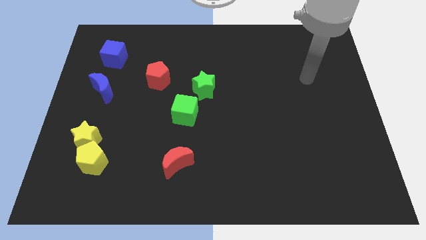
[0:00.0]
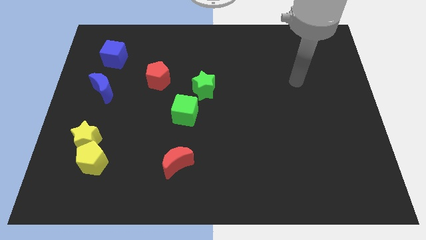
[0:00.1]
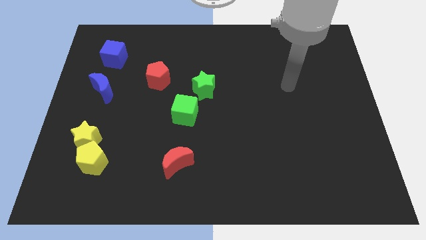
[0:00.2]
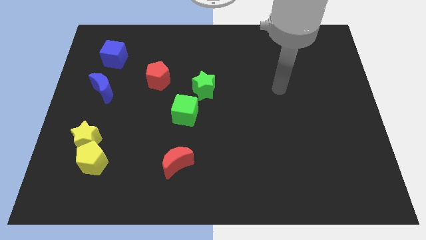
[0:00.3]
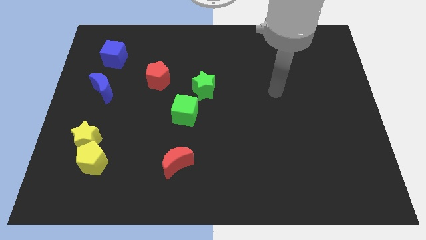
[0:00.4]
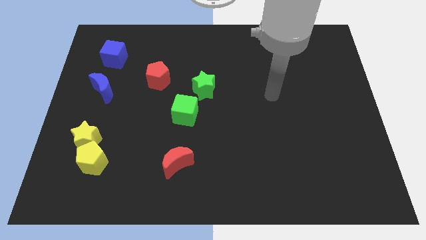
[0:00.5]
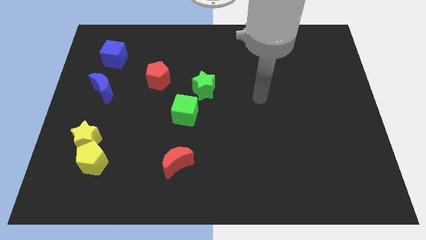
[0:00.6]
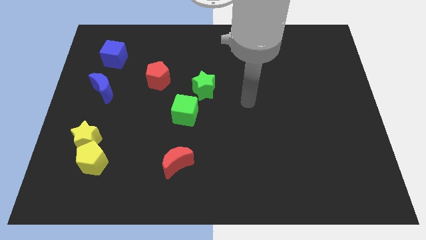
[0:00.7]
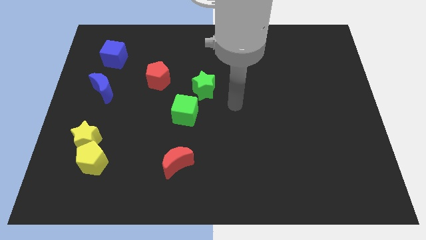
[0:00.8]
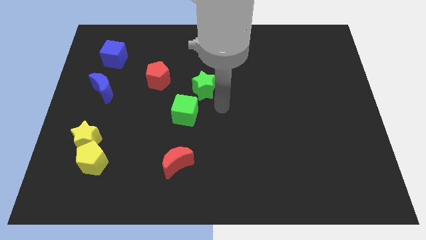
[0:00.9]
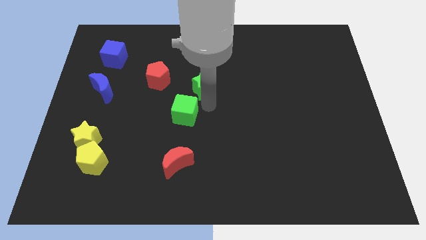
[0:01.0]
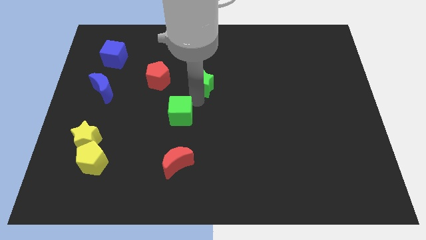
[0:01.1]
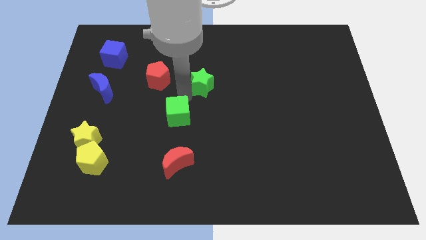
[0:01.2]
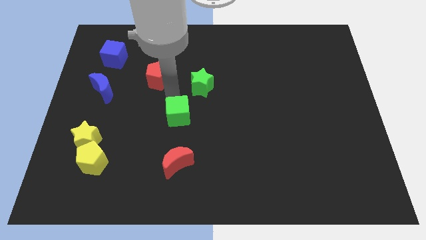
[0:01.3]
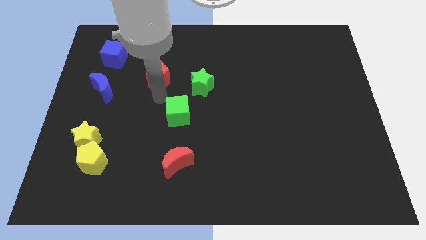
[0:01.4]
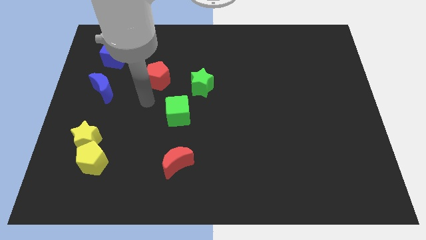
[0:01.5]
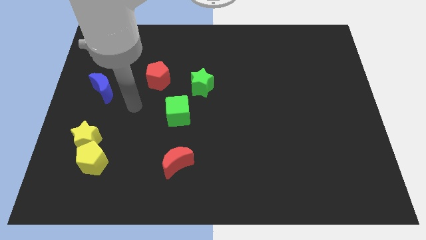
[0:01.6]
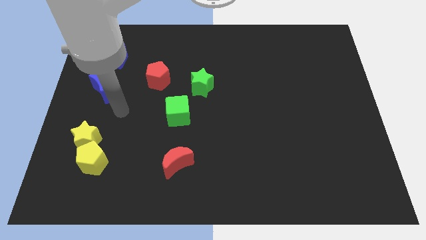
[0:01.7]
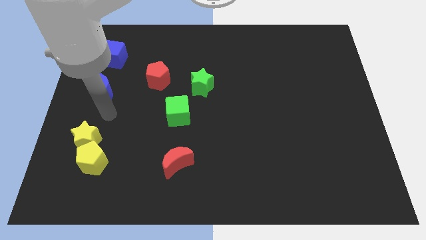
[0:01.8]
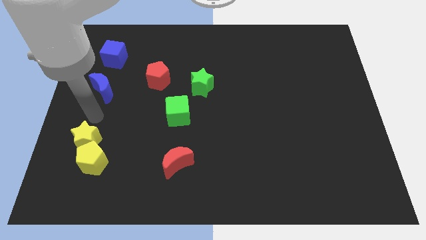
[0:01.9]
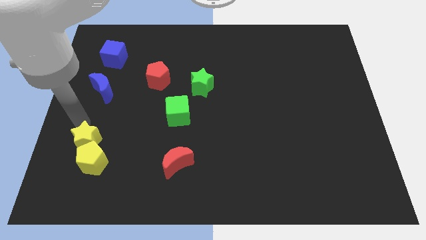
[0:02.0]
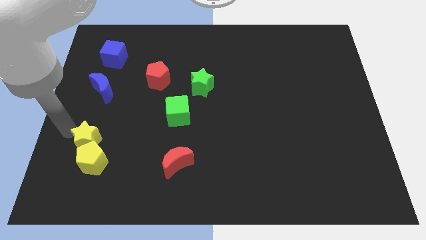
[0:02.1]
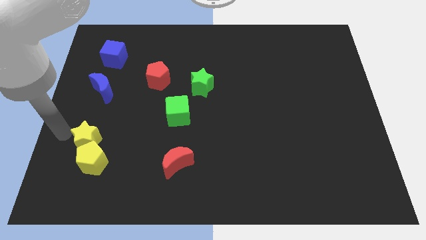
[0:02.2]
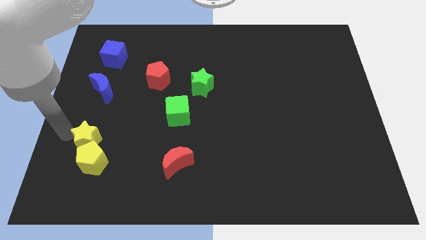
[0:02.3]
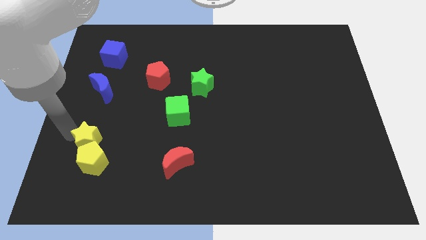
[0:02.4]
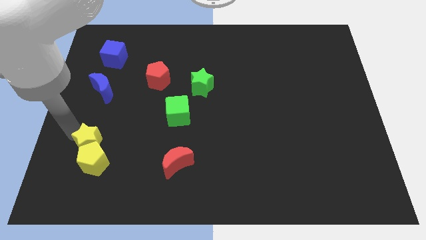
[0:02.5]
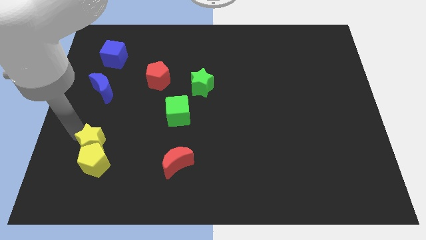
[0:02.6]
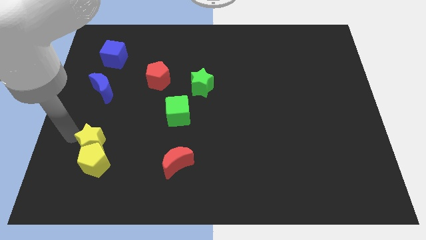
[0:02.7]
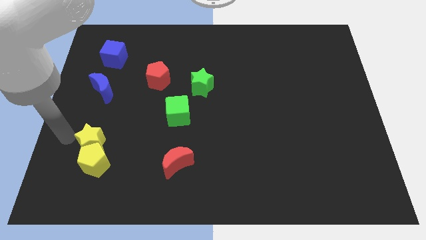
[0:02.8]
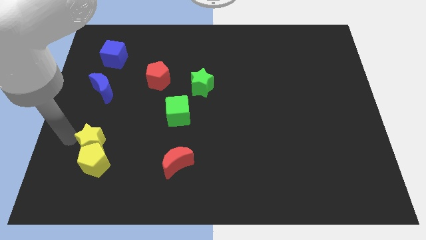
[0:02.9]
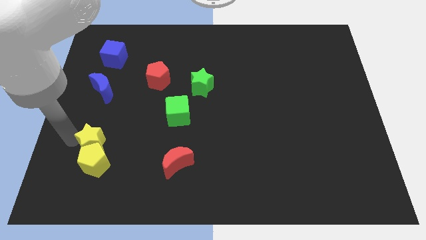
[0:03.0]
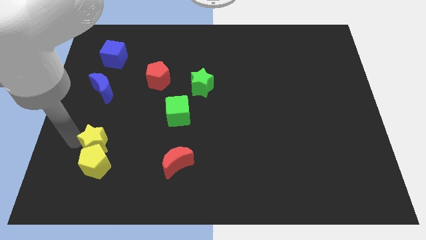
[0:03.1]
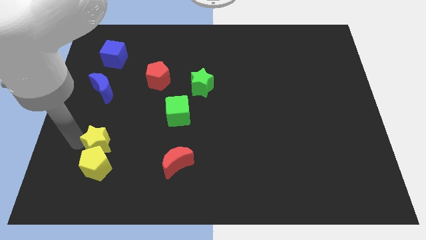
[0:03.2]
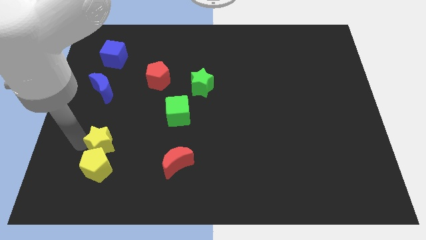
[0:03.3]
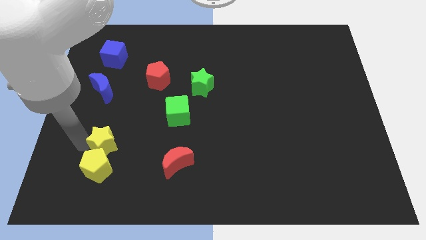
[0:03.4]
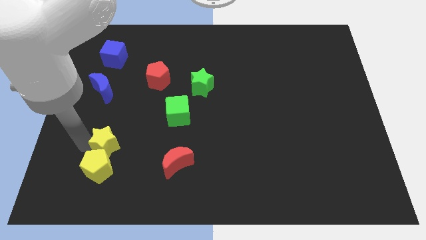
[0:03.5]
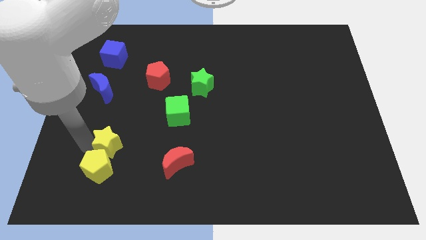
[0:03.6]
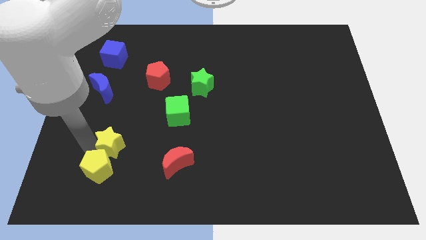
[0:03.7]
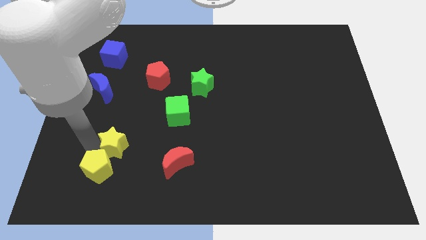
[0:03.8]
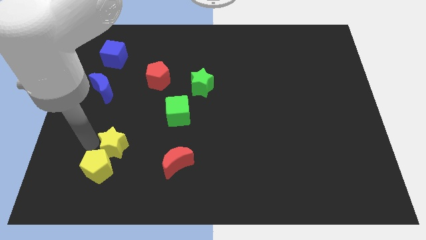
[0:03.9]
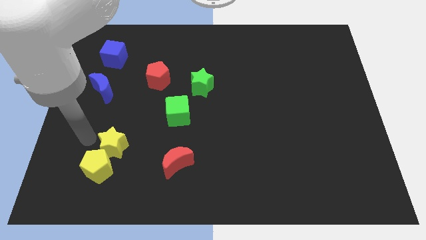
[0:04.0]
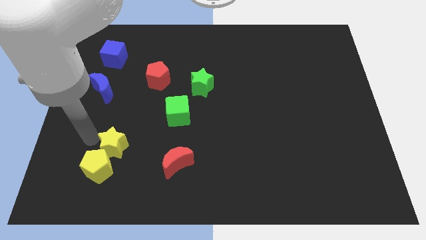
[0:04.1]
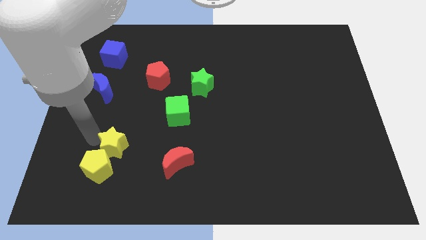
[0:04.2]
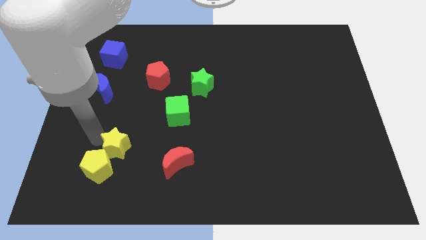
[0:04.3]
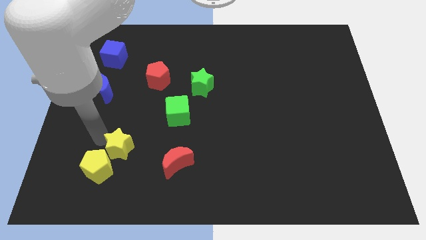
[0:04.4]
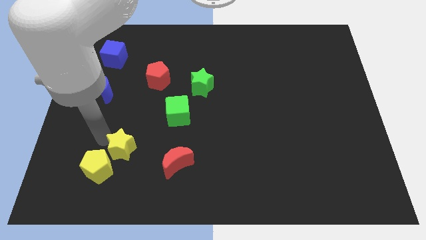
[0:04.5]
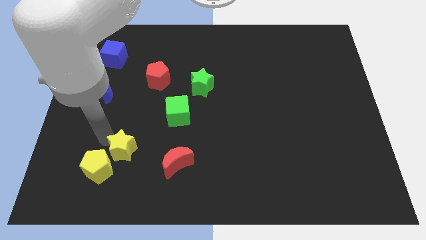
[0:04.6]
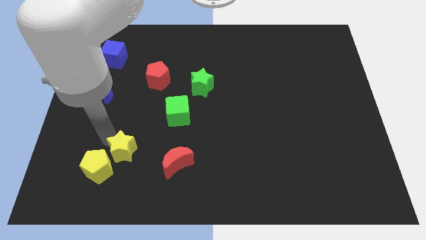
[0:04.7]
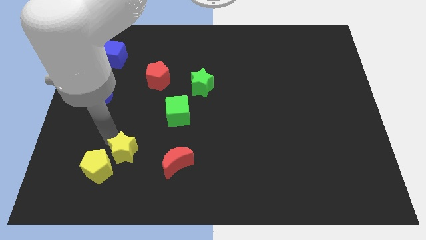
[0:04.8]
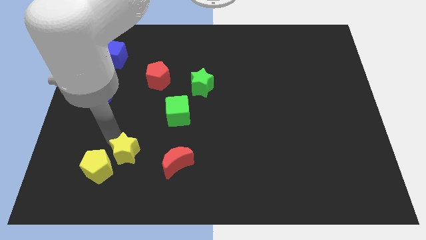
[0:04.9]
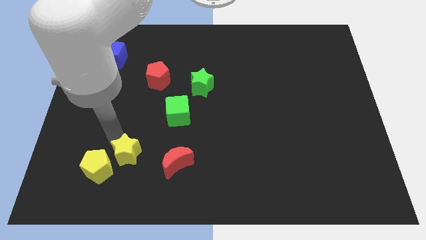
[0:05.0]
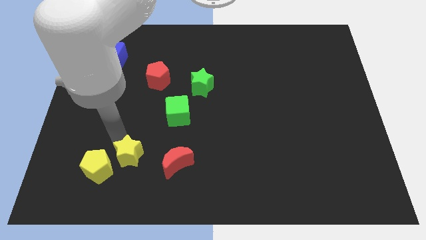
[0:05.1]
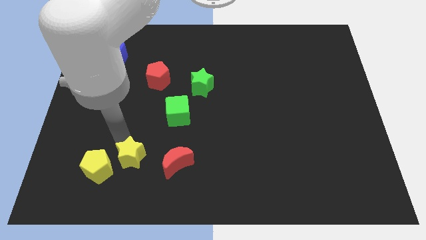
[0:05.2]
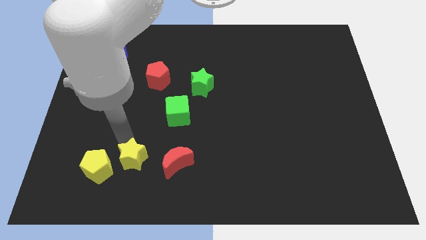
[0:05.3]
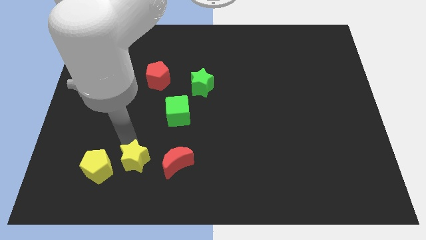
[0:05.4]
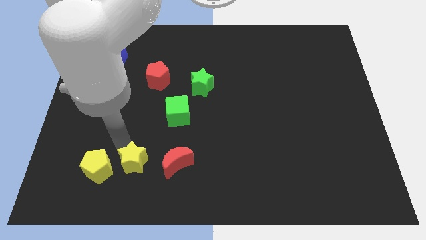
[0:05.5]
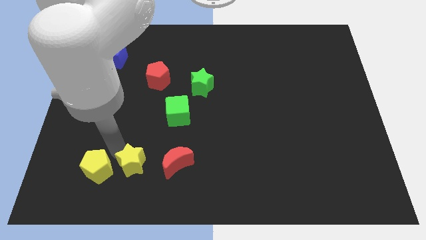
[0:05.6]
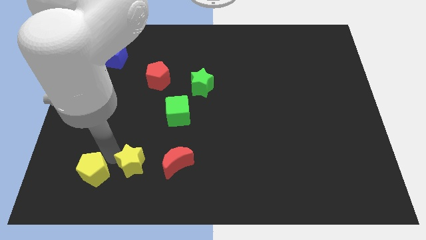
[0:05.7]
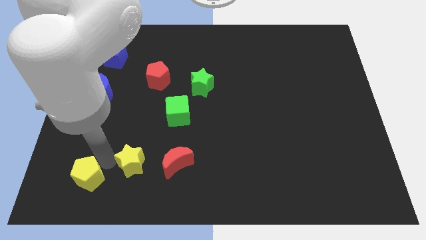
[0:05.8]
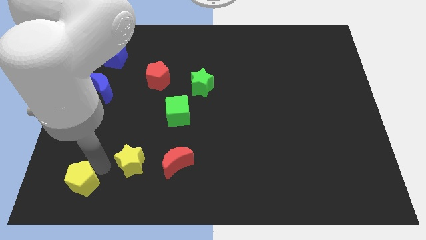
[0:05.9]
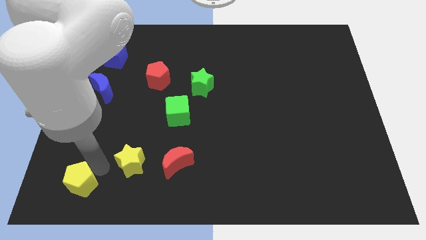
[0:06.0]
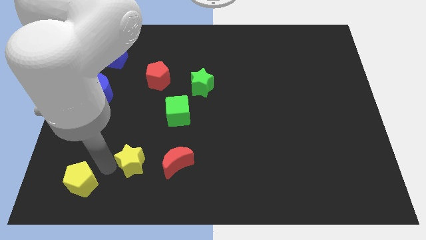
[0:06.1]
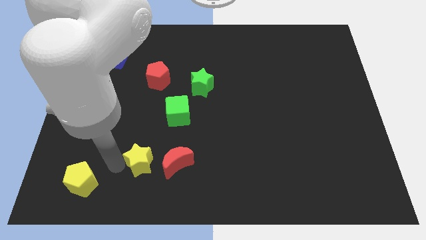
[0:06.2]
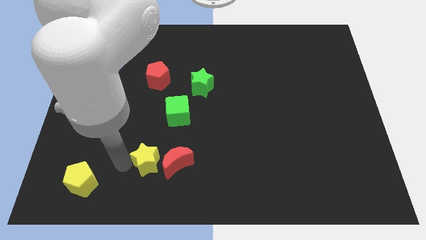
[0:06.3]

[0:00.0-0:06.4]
slide the yellow star towards the red moon

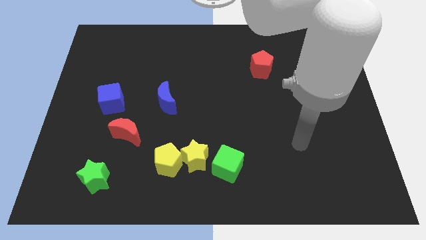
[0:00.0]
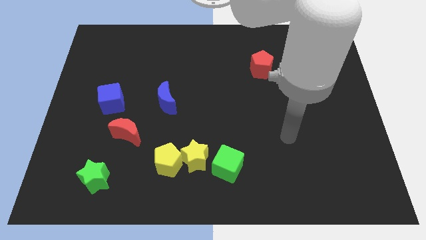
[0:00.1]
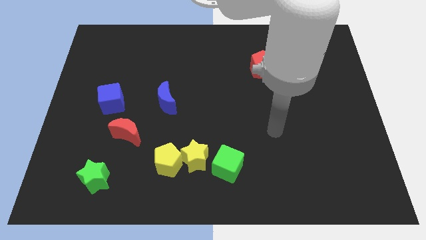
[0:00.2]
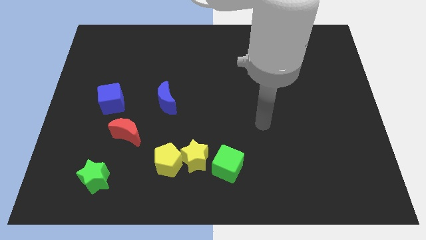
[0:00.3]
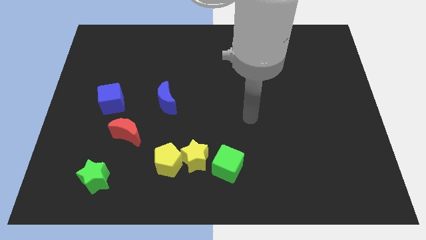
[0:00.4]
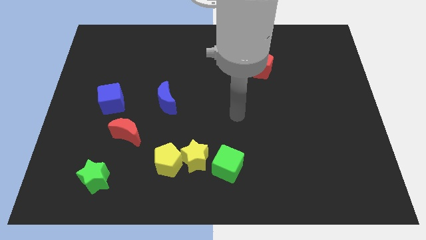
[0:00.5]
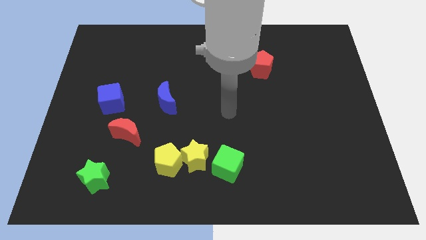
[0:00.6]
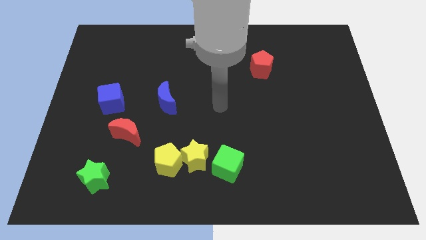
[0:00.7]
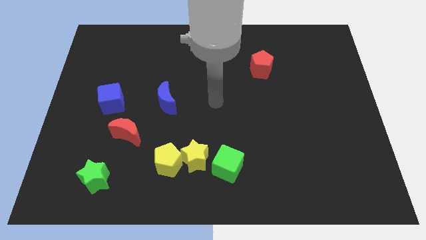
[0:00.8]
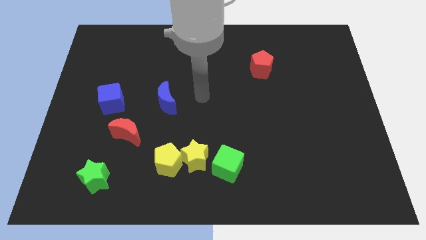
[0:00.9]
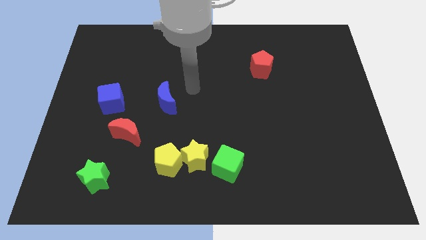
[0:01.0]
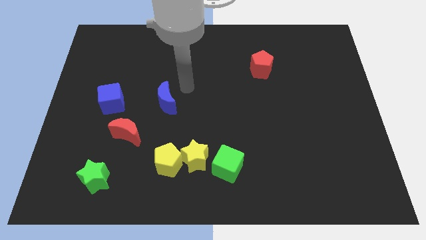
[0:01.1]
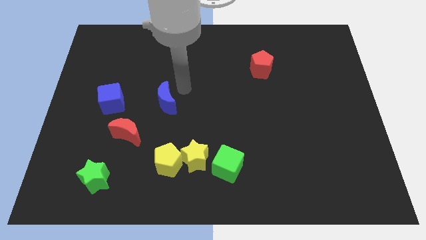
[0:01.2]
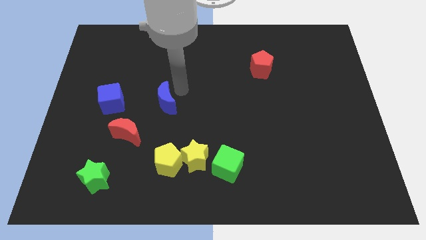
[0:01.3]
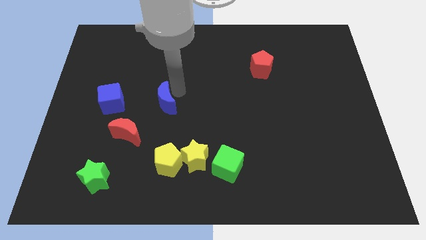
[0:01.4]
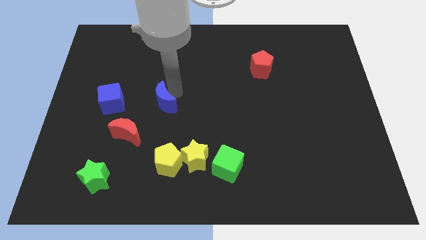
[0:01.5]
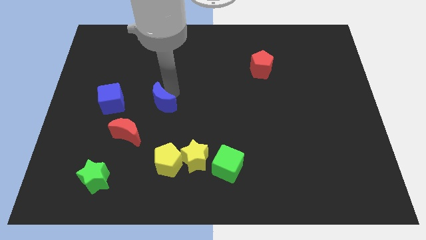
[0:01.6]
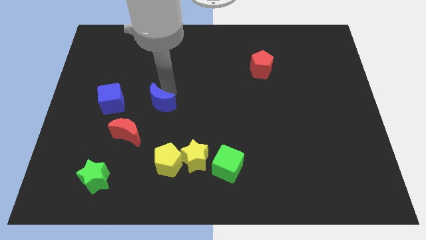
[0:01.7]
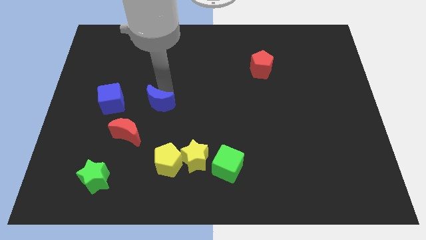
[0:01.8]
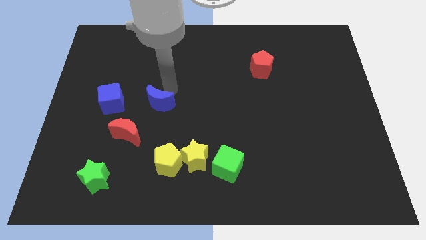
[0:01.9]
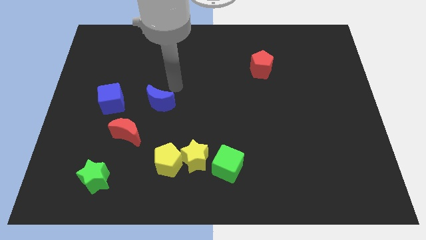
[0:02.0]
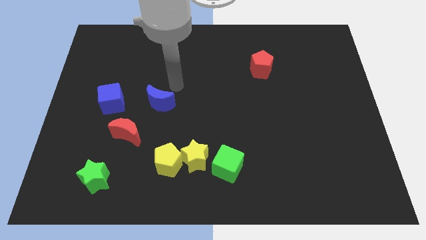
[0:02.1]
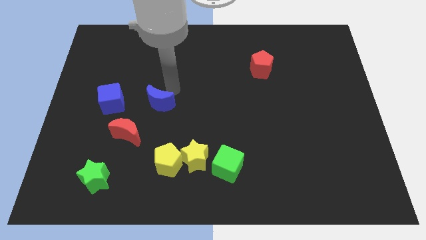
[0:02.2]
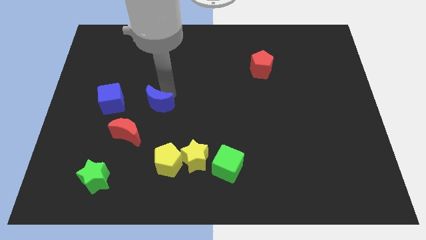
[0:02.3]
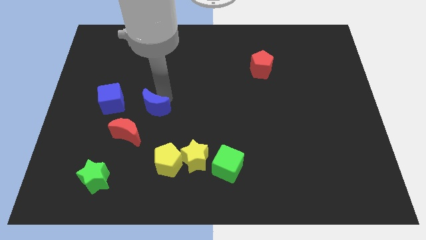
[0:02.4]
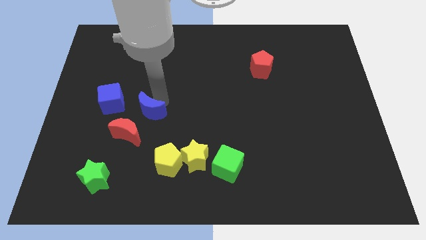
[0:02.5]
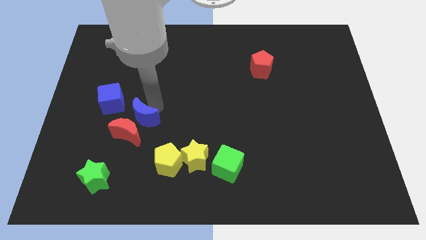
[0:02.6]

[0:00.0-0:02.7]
push the blue moon next to the red moon
